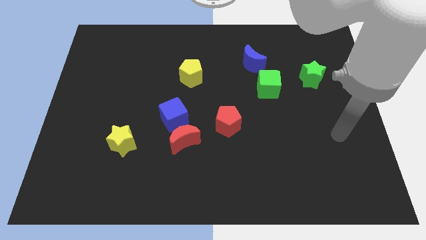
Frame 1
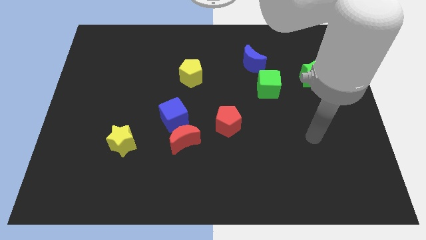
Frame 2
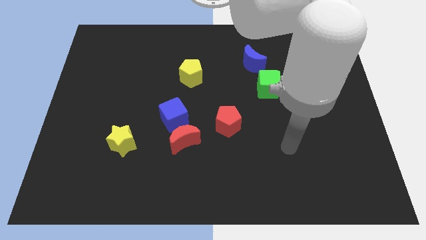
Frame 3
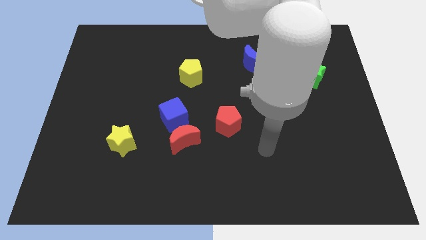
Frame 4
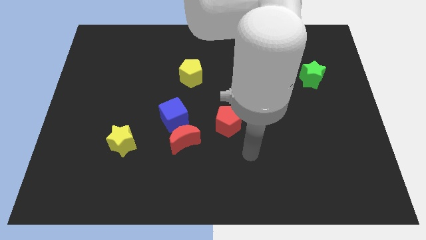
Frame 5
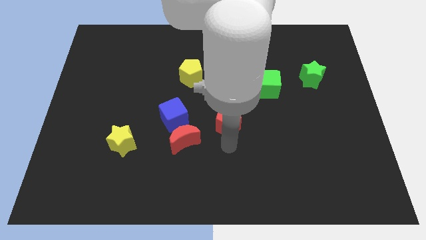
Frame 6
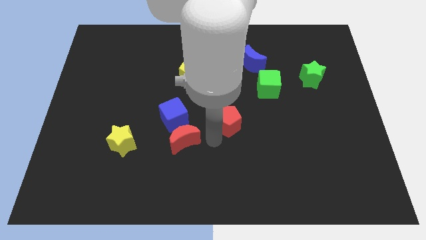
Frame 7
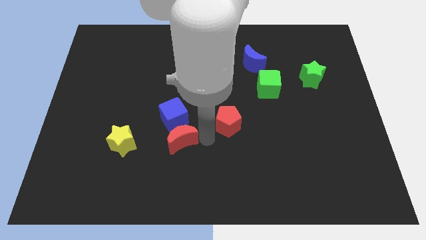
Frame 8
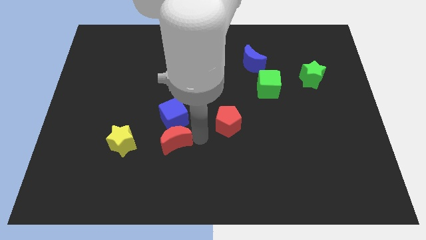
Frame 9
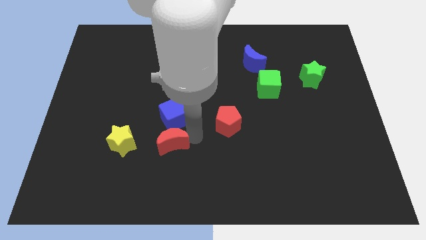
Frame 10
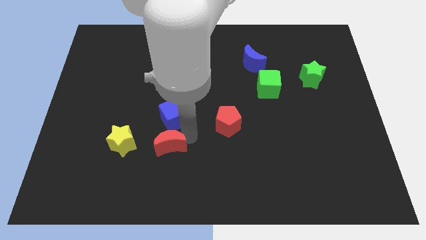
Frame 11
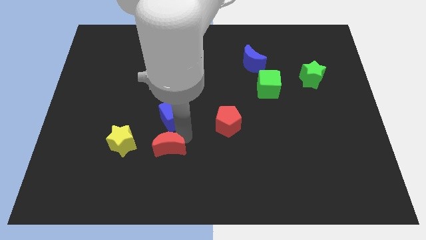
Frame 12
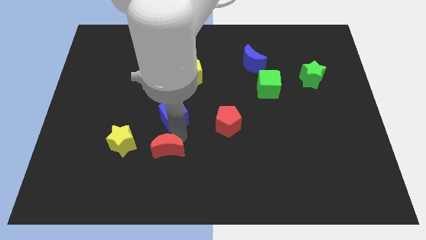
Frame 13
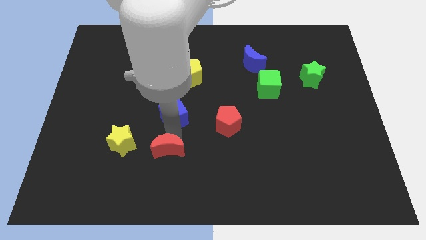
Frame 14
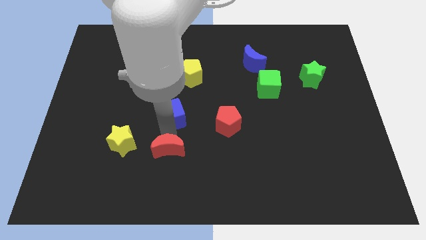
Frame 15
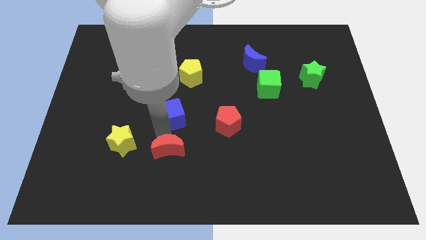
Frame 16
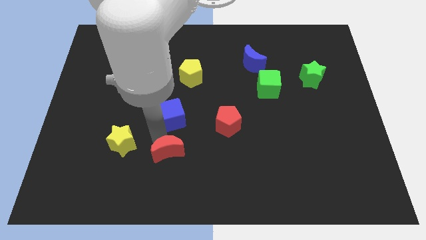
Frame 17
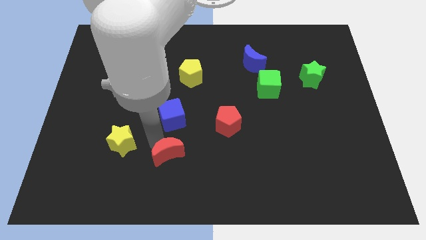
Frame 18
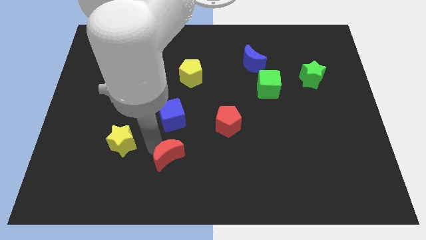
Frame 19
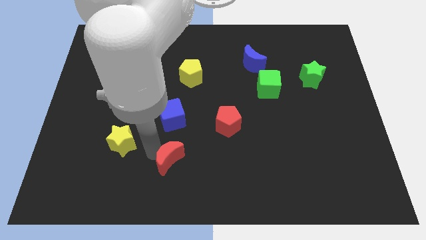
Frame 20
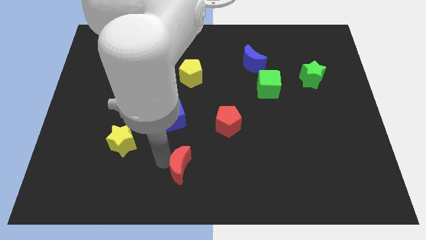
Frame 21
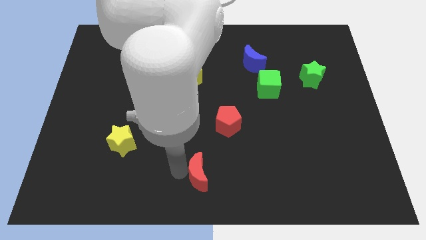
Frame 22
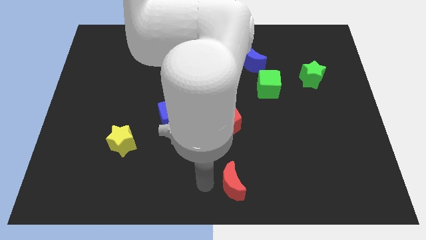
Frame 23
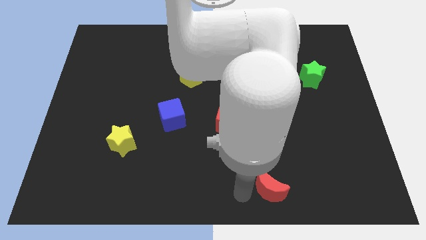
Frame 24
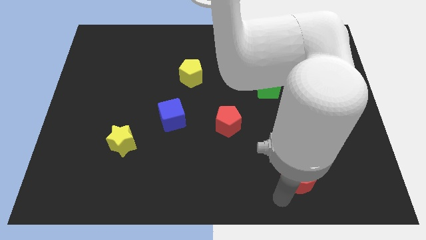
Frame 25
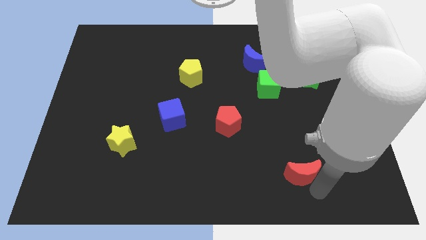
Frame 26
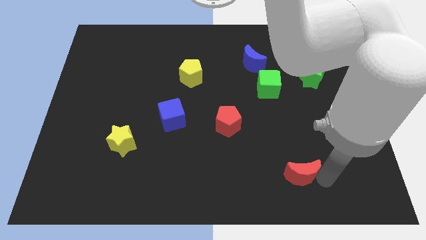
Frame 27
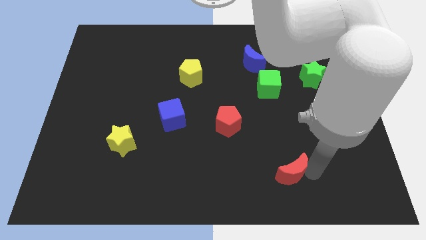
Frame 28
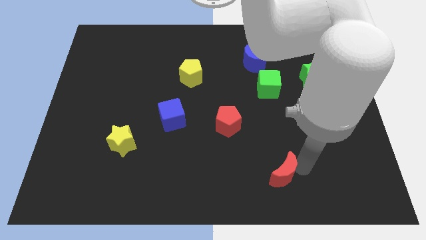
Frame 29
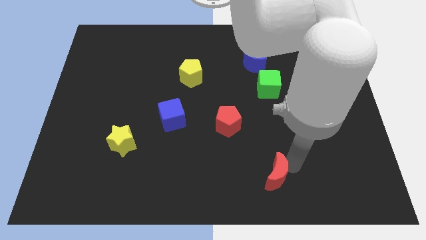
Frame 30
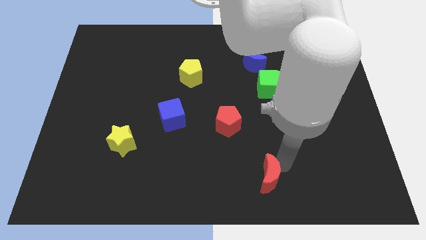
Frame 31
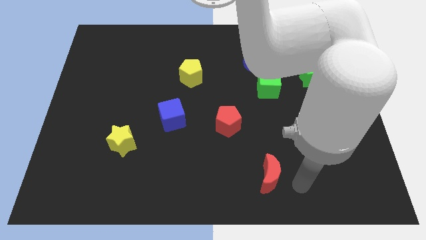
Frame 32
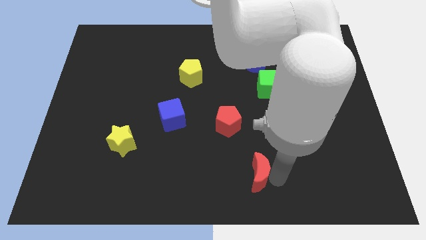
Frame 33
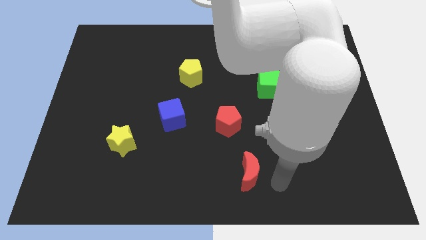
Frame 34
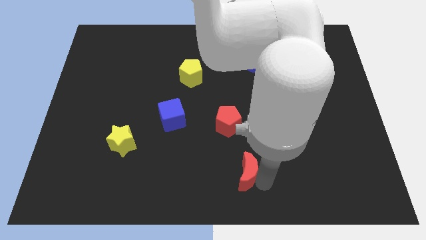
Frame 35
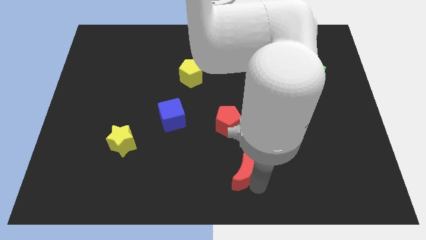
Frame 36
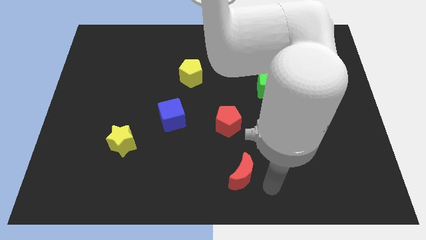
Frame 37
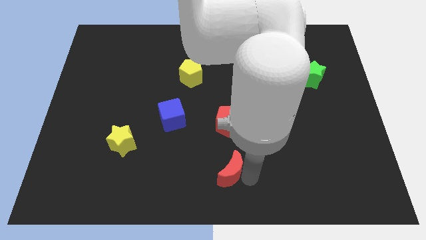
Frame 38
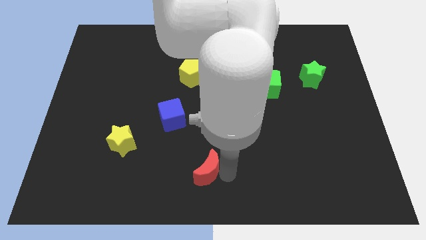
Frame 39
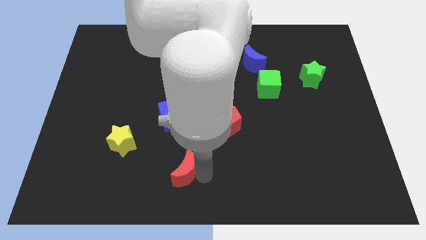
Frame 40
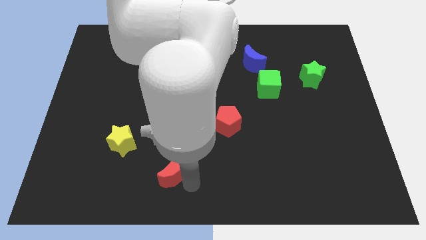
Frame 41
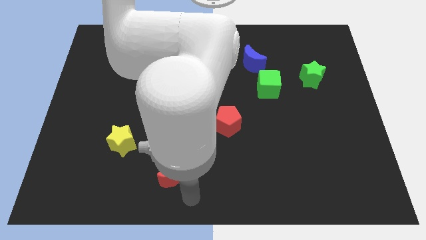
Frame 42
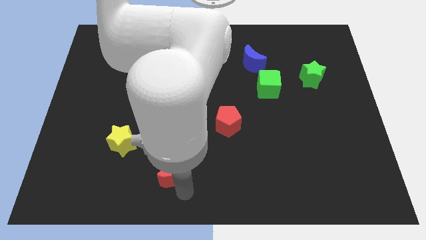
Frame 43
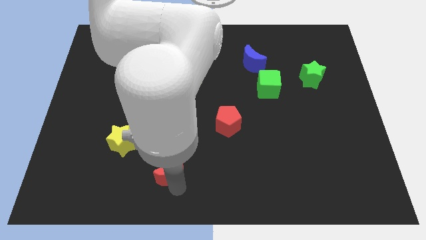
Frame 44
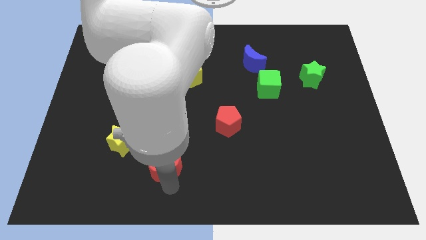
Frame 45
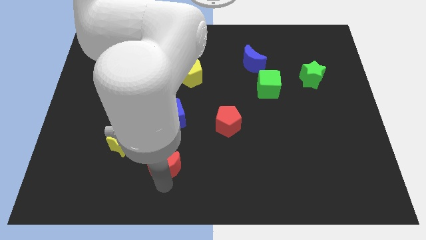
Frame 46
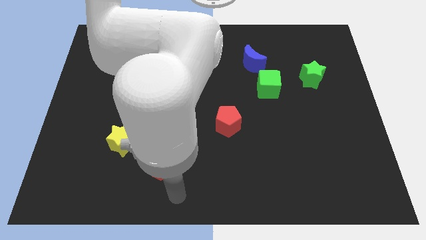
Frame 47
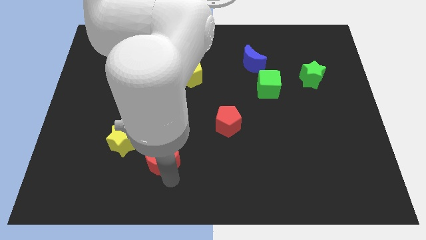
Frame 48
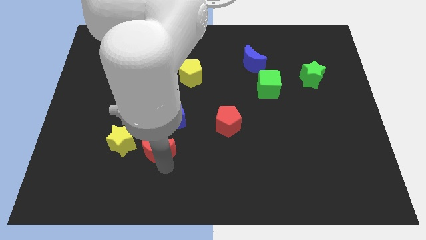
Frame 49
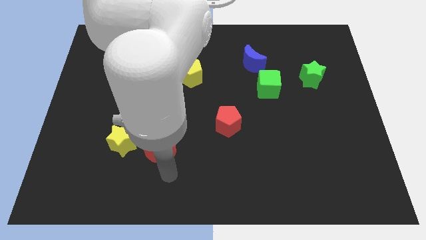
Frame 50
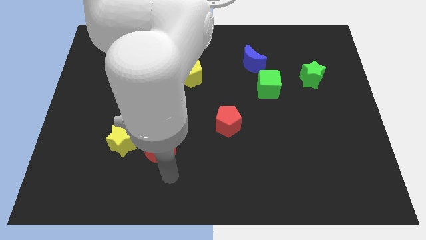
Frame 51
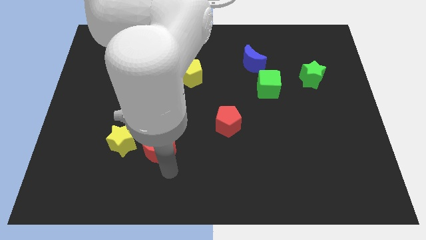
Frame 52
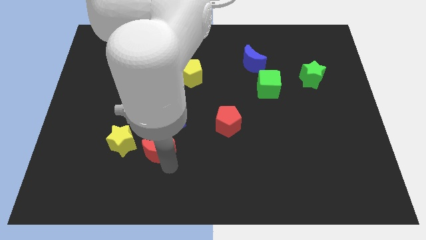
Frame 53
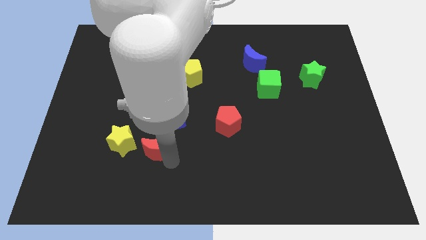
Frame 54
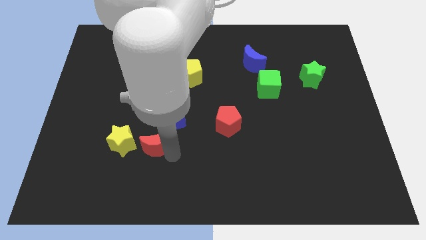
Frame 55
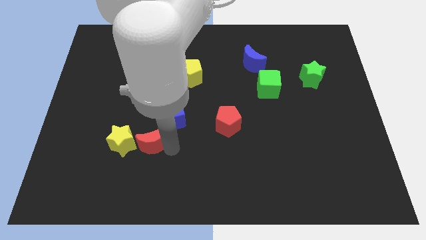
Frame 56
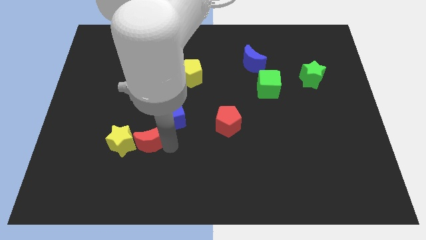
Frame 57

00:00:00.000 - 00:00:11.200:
push the red moon slightly left

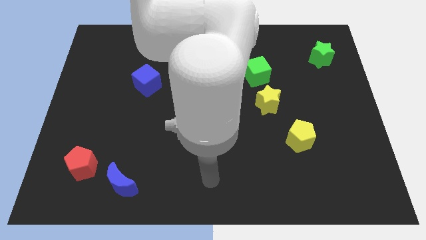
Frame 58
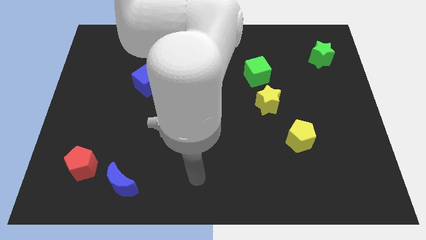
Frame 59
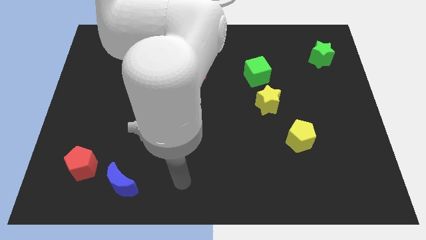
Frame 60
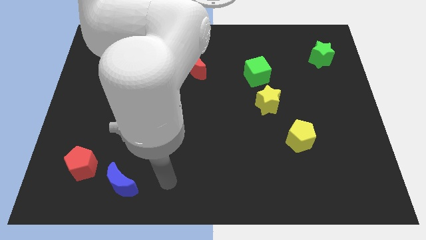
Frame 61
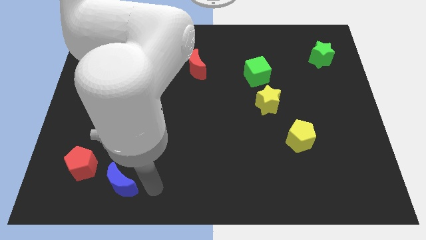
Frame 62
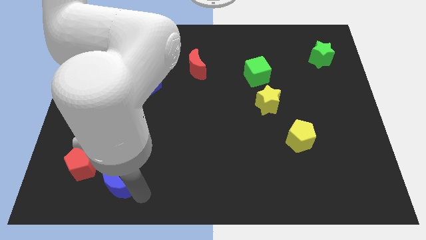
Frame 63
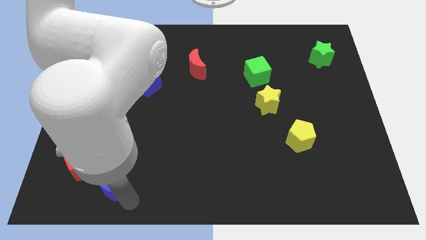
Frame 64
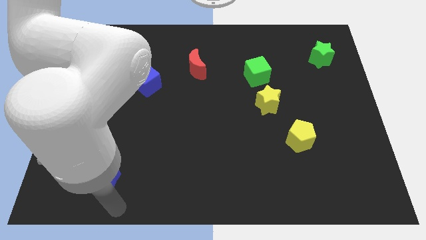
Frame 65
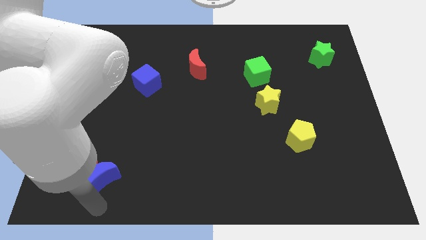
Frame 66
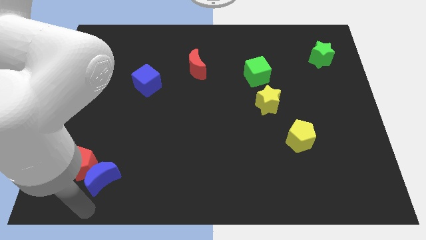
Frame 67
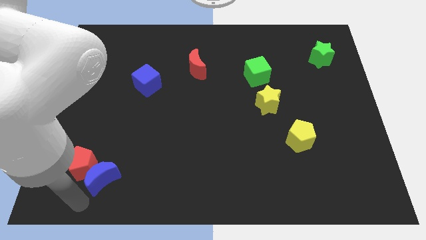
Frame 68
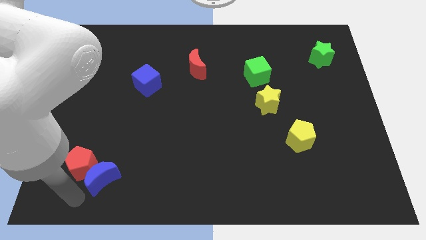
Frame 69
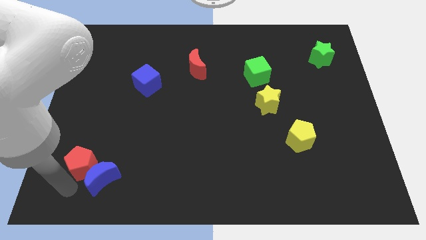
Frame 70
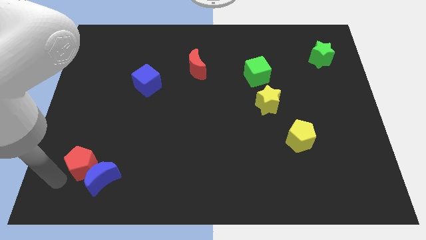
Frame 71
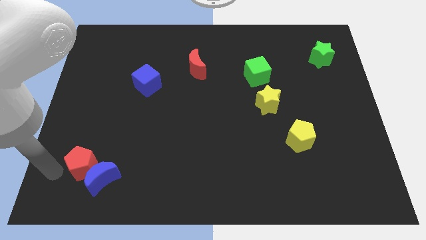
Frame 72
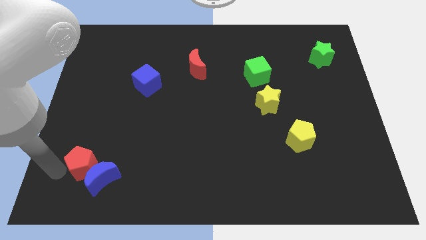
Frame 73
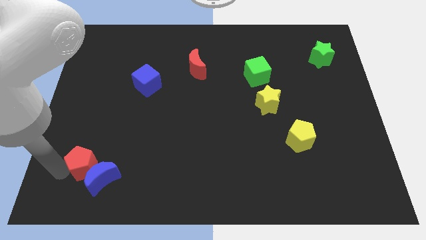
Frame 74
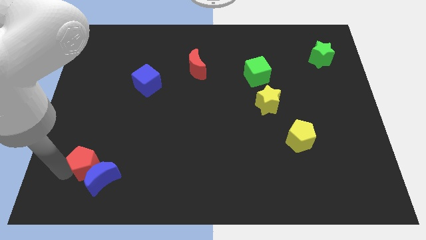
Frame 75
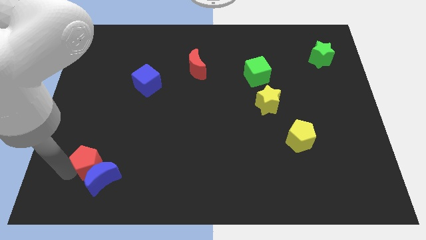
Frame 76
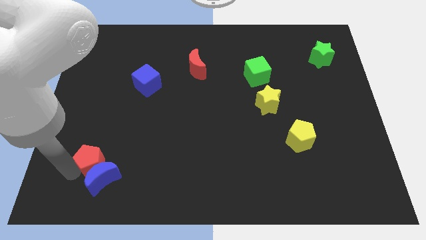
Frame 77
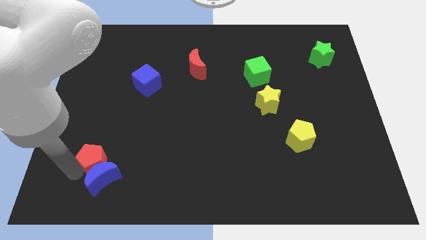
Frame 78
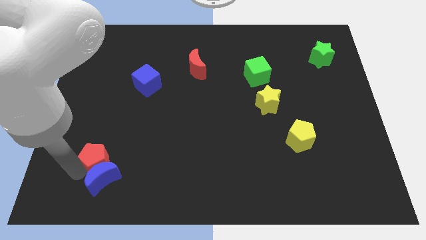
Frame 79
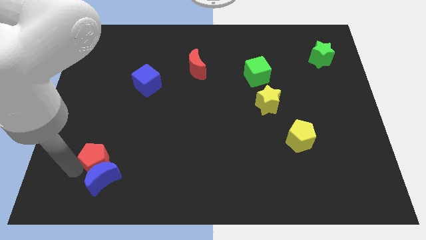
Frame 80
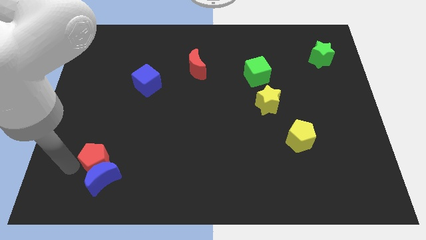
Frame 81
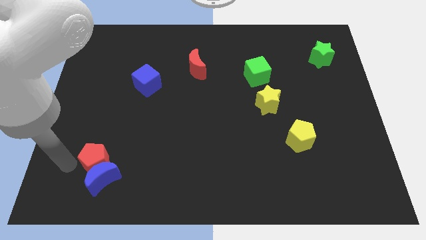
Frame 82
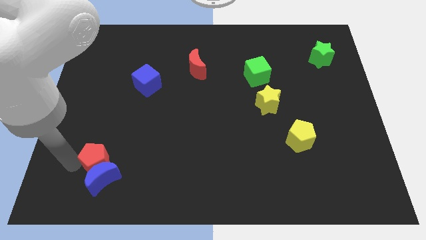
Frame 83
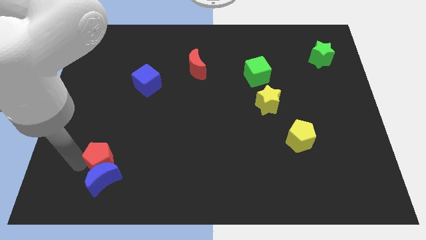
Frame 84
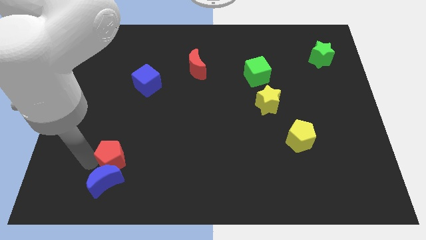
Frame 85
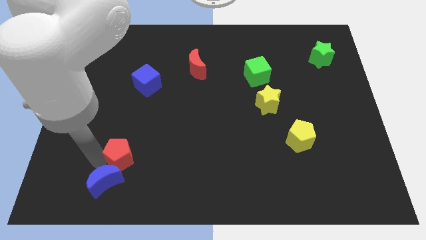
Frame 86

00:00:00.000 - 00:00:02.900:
slightly push the red pentagon right
